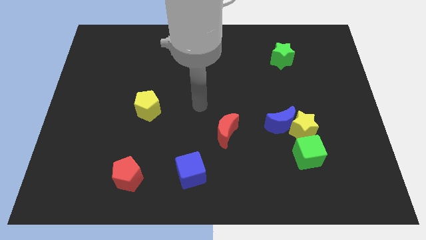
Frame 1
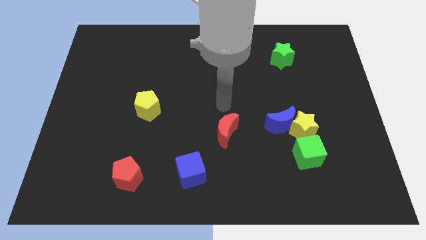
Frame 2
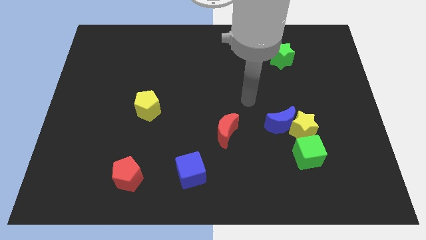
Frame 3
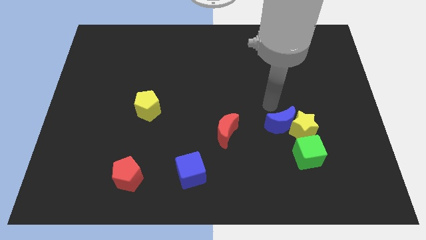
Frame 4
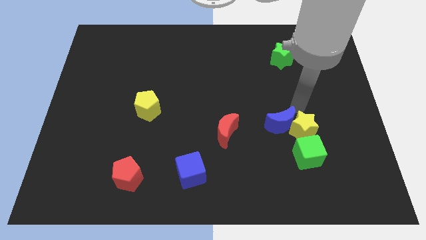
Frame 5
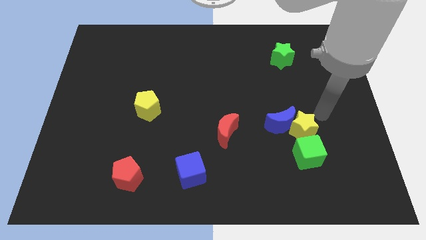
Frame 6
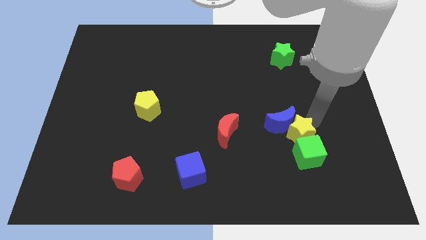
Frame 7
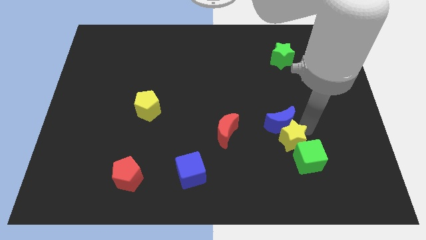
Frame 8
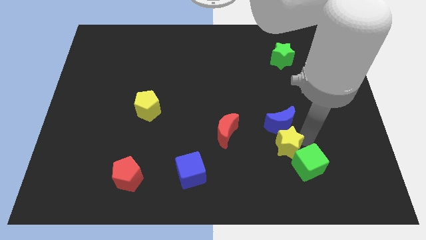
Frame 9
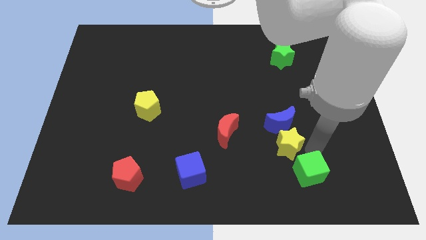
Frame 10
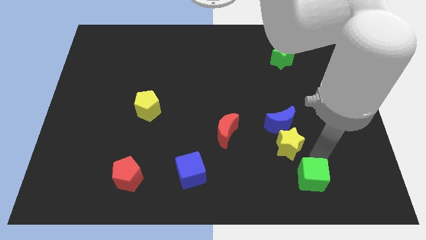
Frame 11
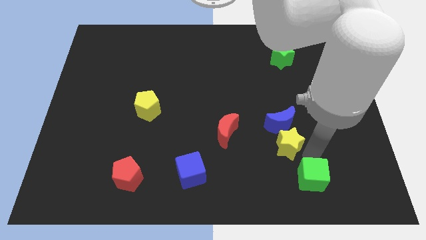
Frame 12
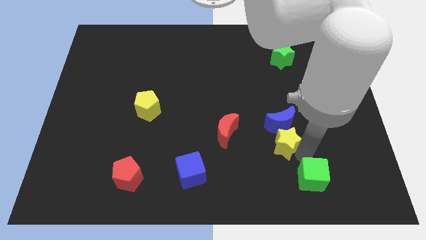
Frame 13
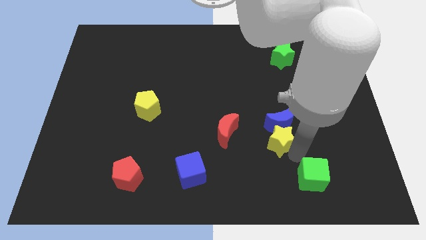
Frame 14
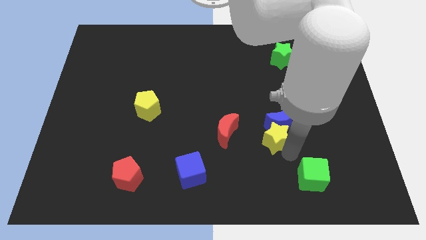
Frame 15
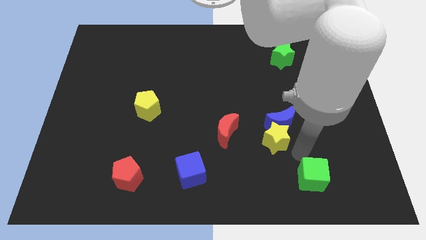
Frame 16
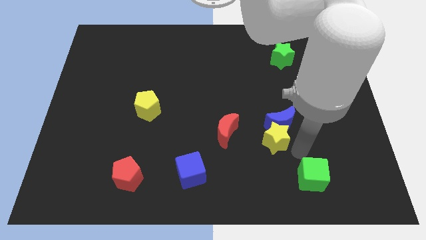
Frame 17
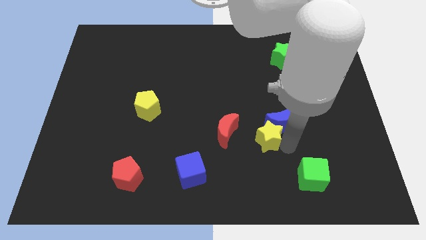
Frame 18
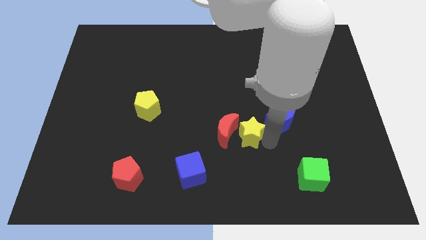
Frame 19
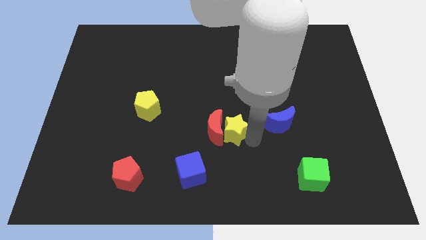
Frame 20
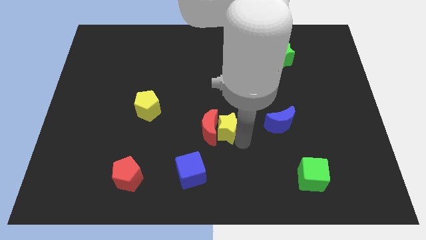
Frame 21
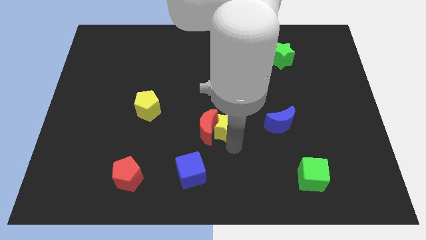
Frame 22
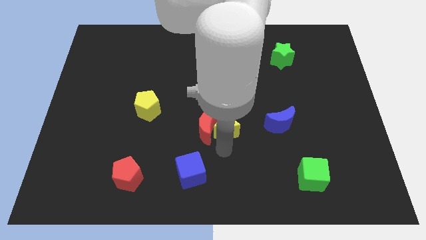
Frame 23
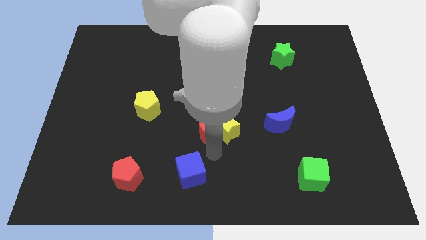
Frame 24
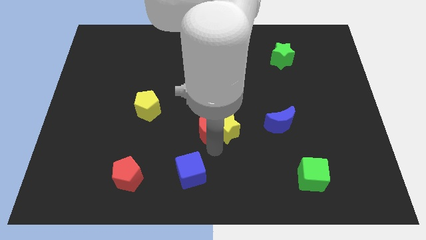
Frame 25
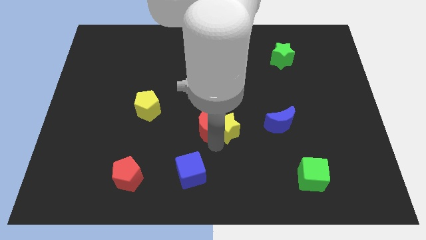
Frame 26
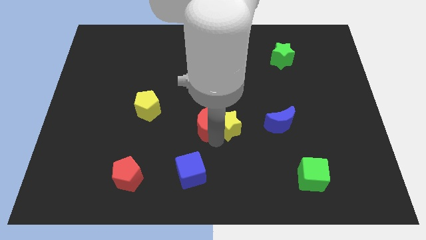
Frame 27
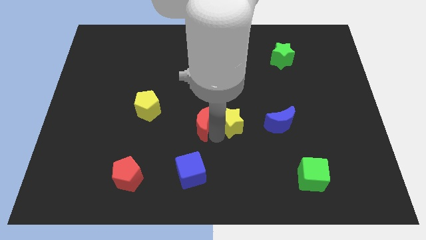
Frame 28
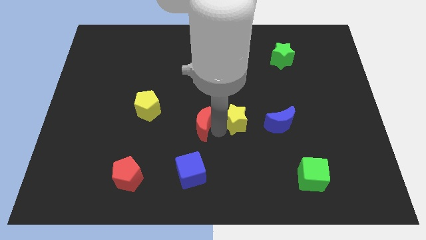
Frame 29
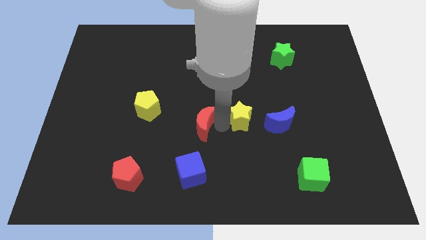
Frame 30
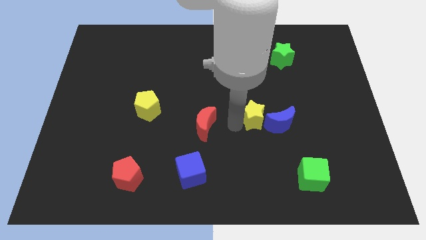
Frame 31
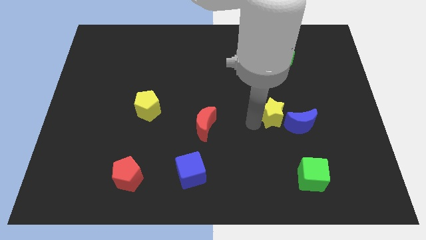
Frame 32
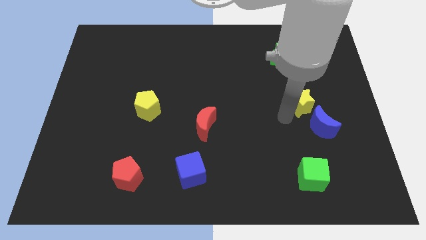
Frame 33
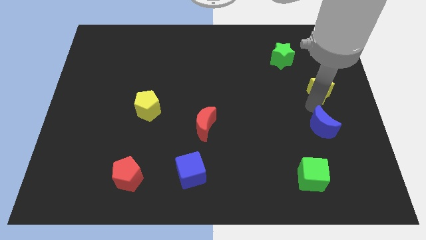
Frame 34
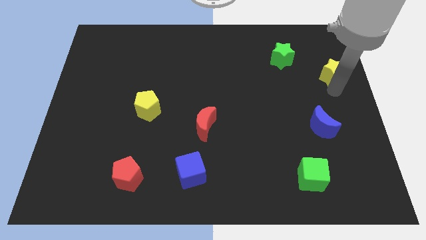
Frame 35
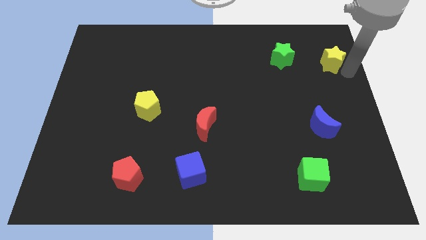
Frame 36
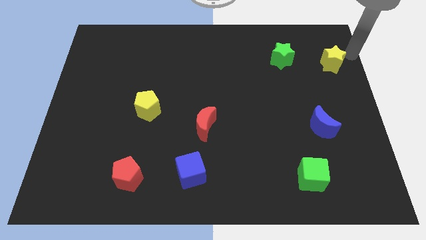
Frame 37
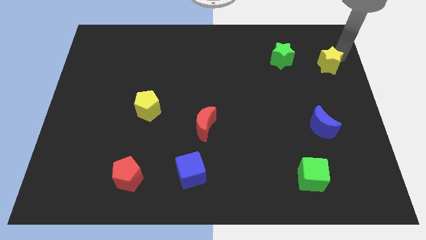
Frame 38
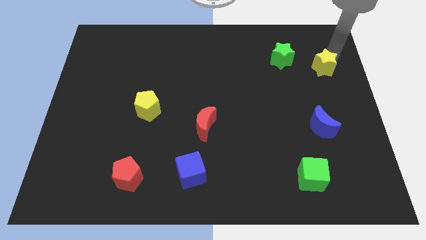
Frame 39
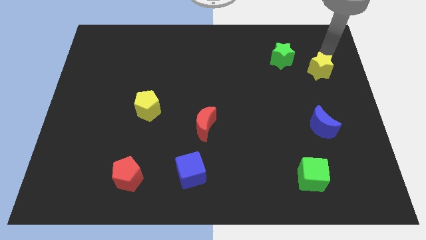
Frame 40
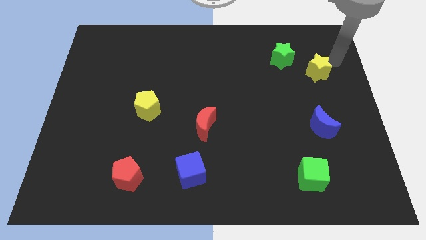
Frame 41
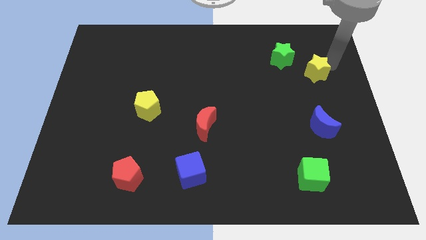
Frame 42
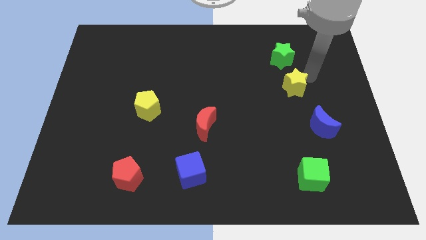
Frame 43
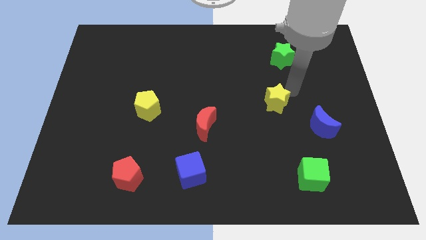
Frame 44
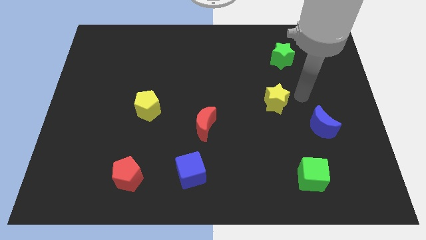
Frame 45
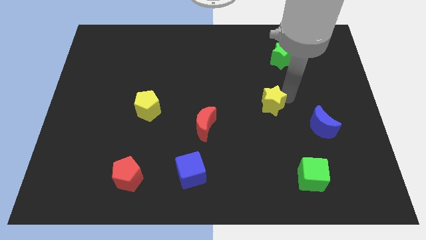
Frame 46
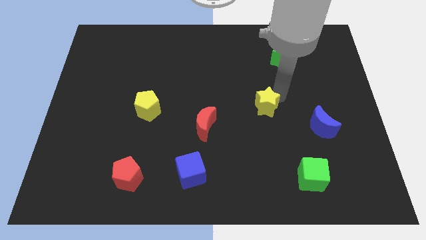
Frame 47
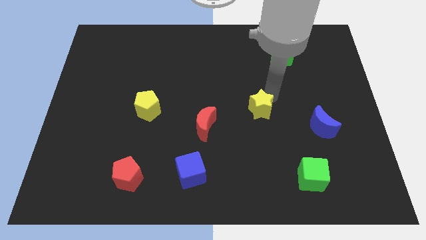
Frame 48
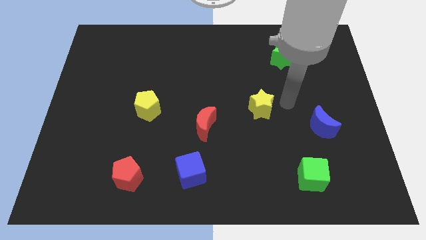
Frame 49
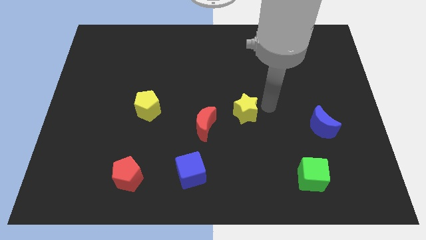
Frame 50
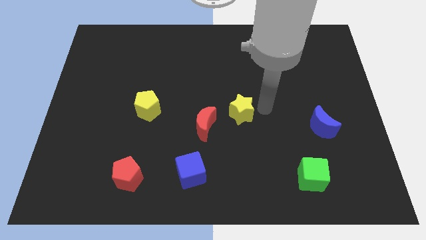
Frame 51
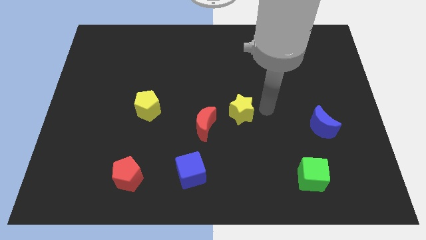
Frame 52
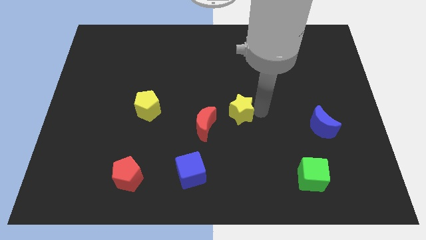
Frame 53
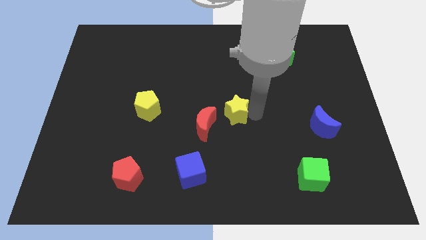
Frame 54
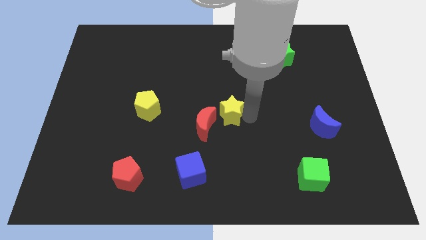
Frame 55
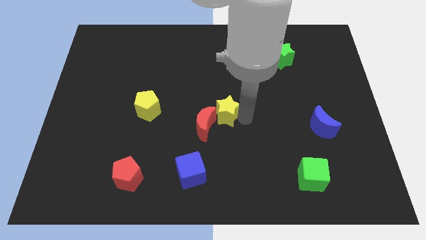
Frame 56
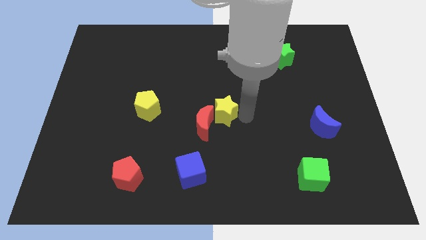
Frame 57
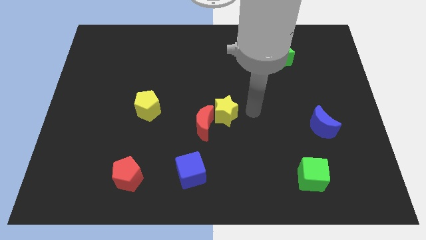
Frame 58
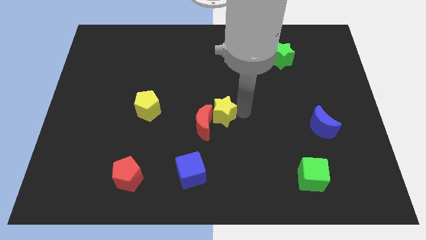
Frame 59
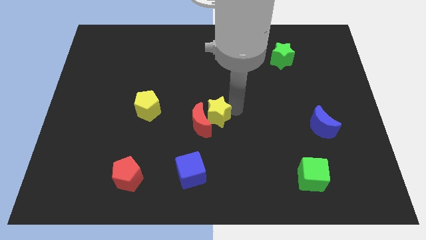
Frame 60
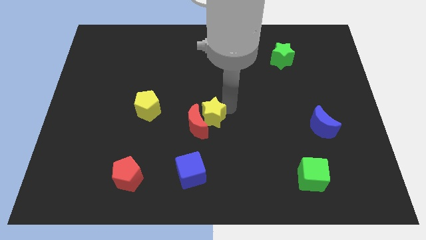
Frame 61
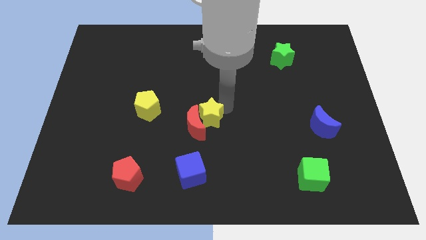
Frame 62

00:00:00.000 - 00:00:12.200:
move the yellow star left

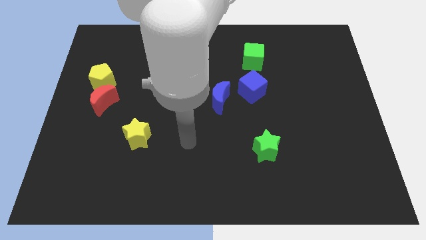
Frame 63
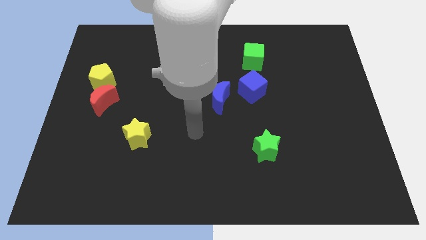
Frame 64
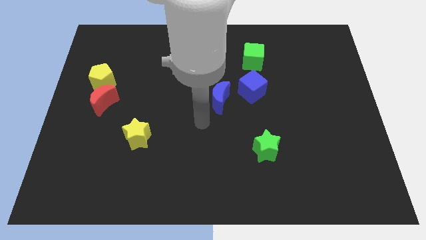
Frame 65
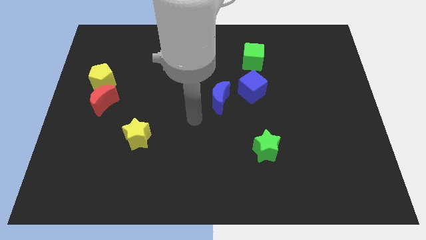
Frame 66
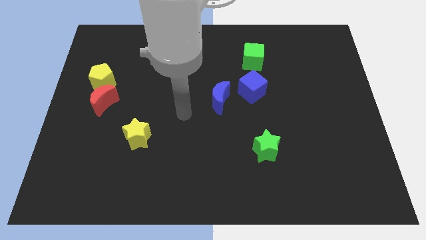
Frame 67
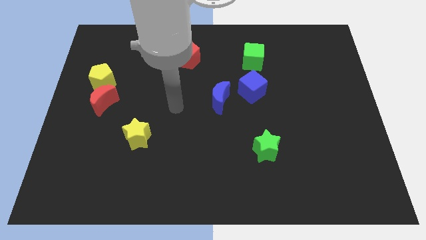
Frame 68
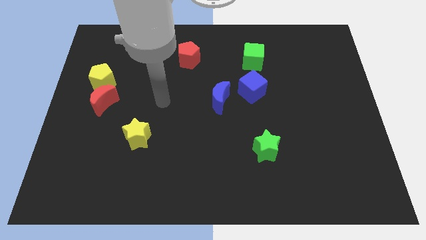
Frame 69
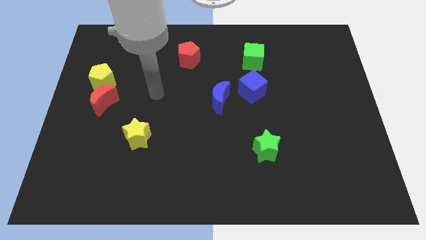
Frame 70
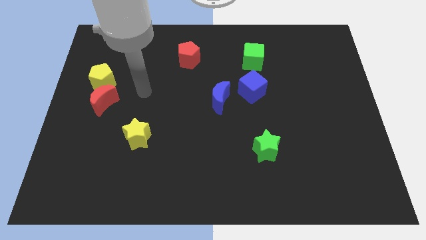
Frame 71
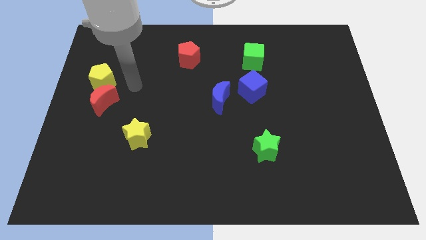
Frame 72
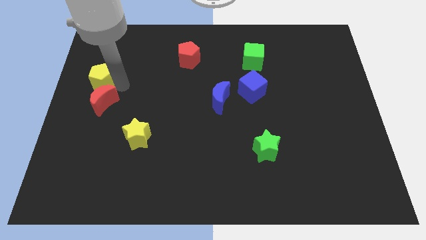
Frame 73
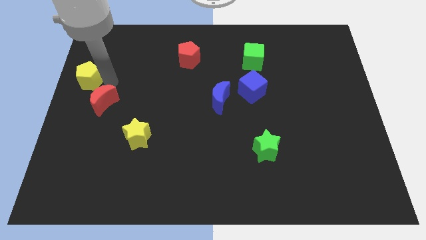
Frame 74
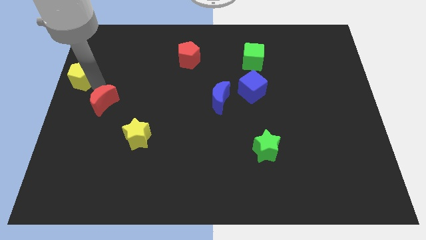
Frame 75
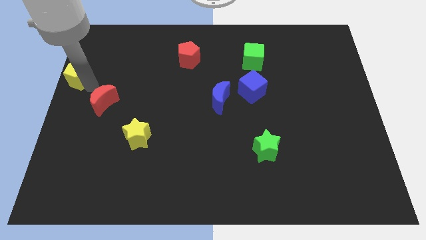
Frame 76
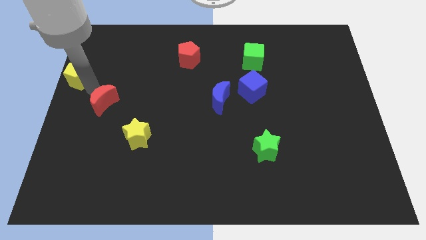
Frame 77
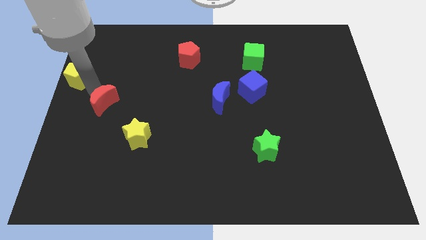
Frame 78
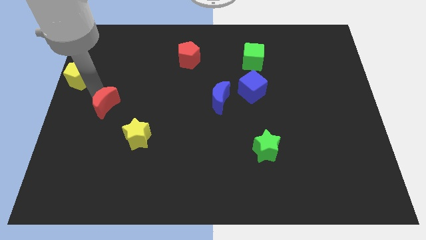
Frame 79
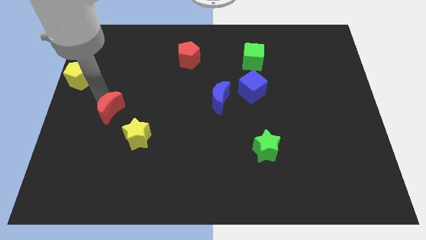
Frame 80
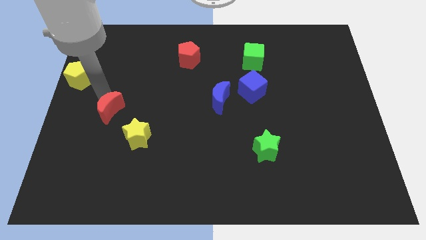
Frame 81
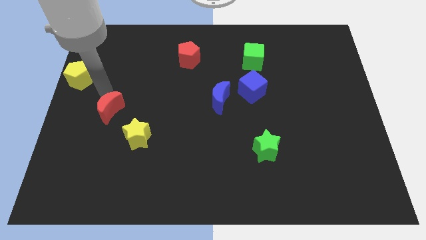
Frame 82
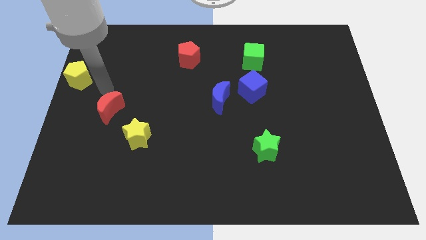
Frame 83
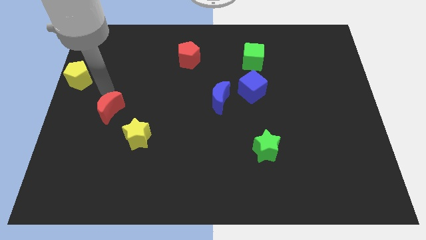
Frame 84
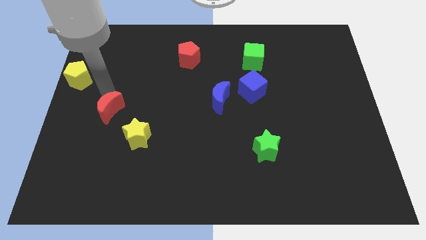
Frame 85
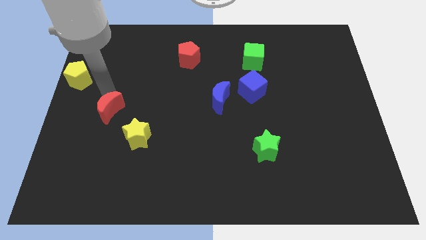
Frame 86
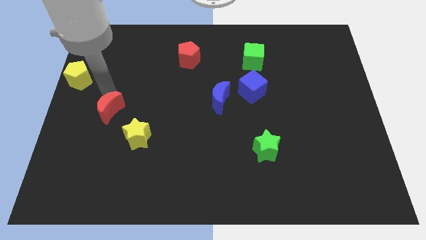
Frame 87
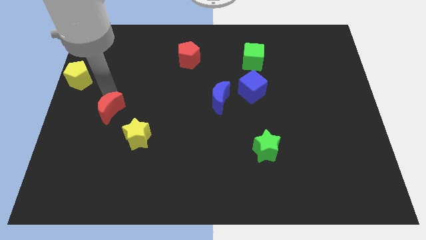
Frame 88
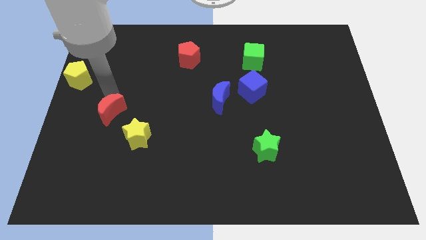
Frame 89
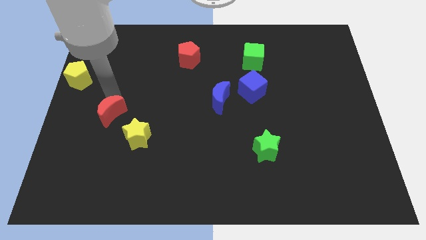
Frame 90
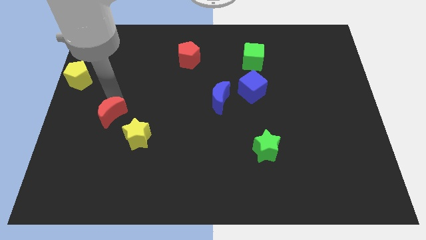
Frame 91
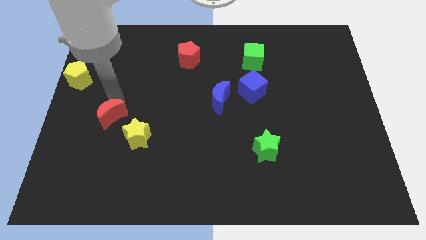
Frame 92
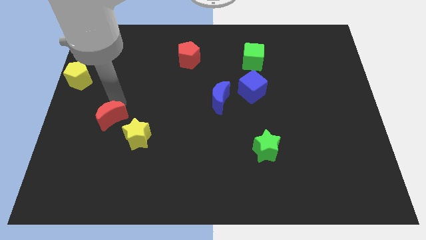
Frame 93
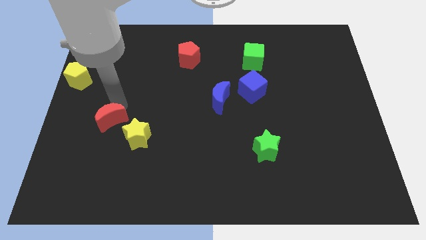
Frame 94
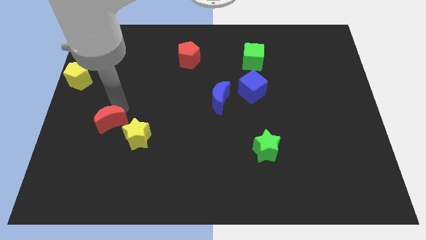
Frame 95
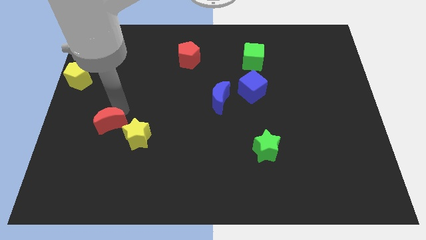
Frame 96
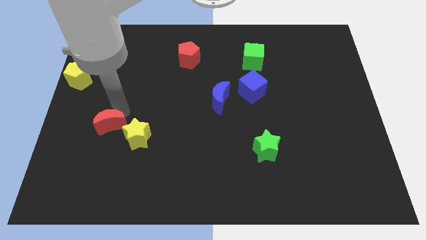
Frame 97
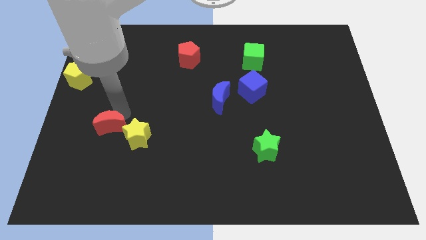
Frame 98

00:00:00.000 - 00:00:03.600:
slide the red moon diagonally down and right slightly
